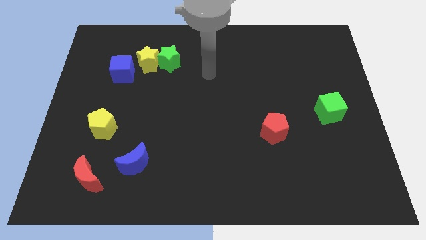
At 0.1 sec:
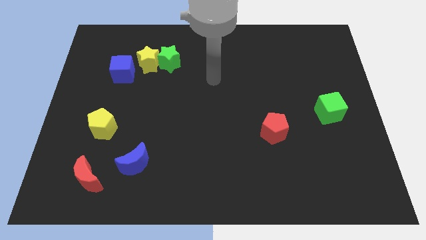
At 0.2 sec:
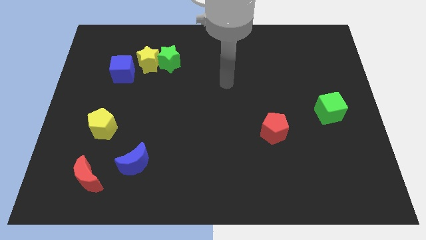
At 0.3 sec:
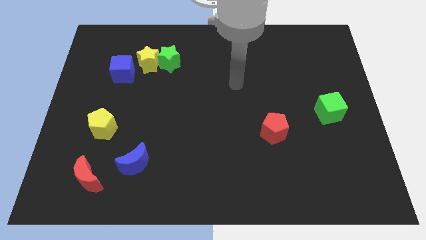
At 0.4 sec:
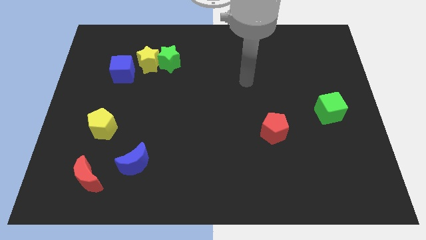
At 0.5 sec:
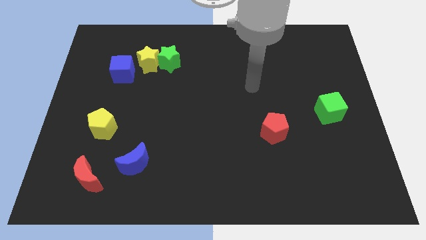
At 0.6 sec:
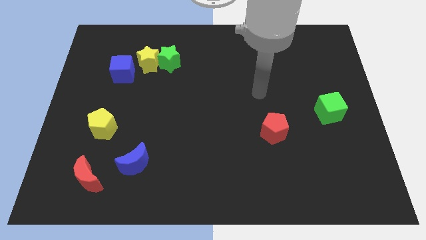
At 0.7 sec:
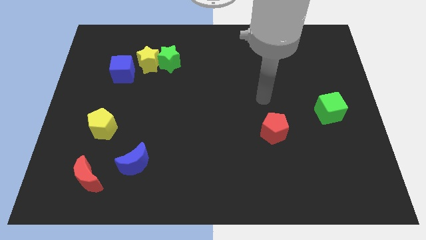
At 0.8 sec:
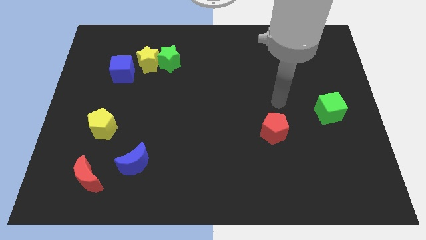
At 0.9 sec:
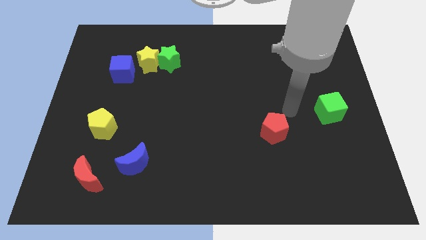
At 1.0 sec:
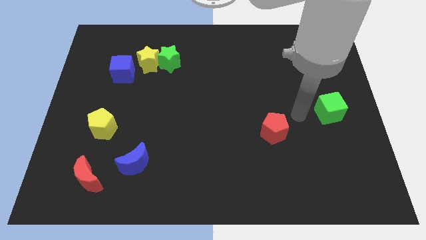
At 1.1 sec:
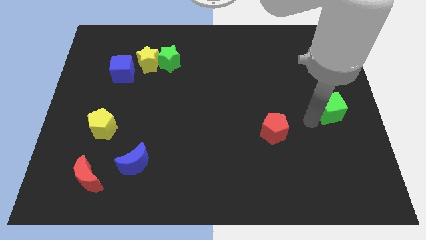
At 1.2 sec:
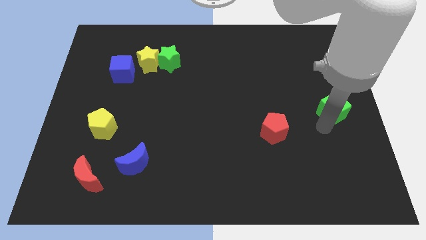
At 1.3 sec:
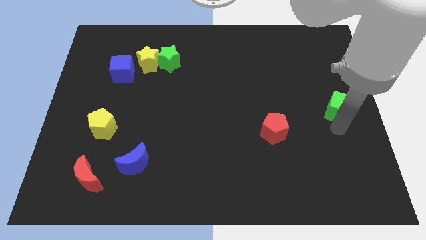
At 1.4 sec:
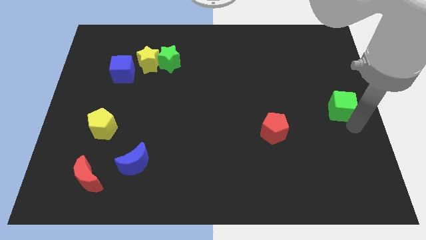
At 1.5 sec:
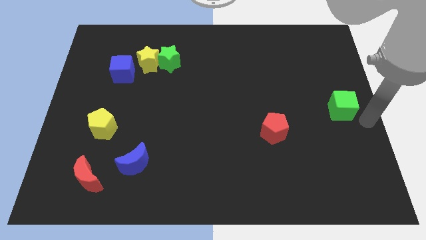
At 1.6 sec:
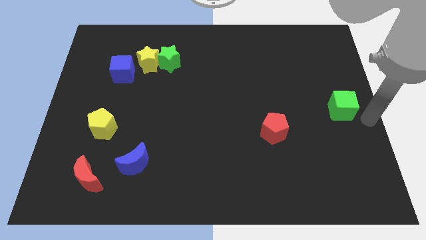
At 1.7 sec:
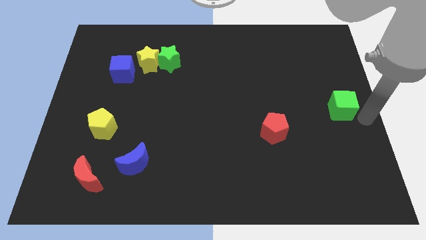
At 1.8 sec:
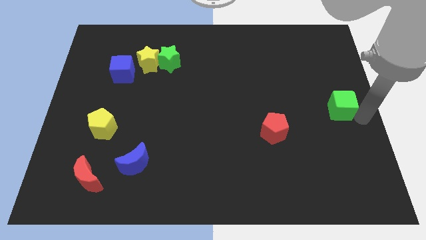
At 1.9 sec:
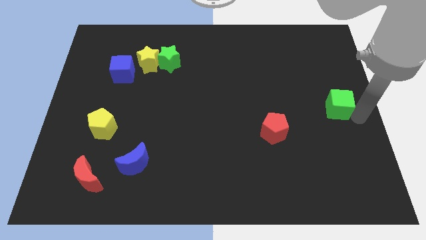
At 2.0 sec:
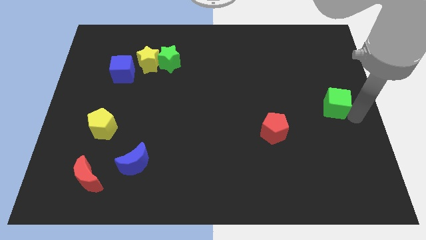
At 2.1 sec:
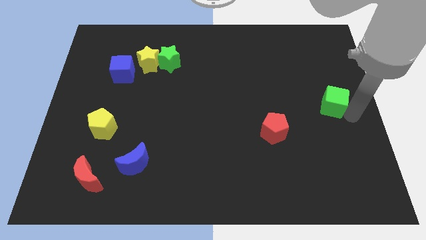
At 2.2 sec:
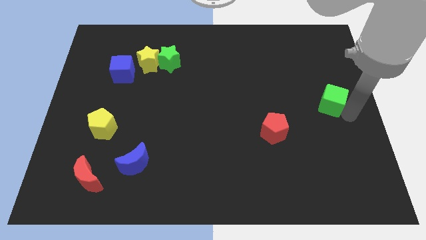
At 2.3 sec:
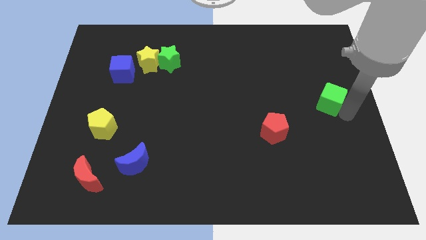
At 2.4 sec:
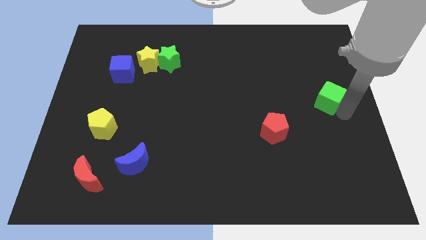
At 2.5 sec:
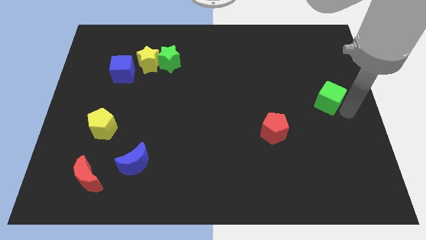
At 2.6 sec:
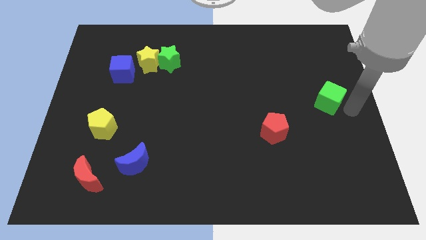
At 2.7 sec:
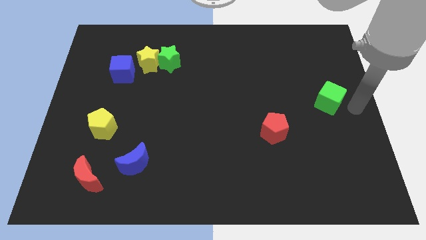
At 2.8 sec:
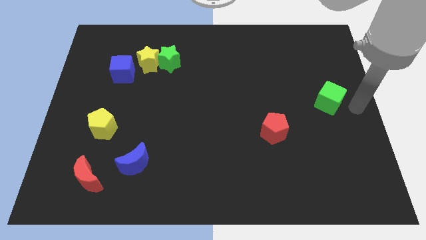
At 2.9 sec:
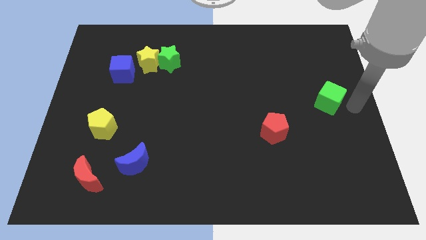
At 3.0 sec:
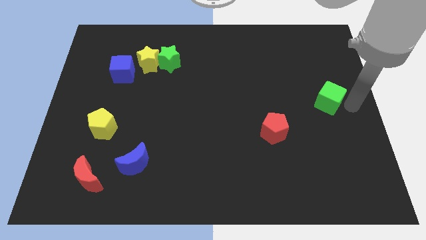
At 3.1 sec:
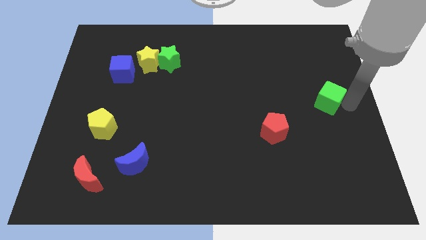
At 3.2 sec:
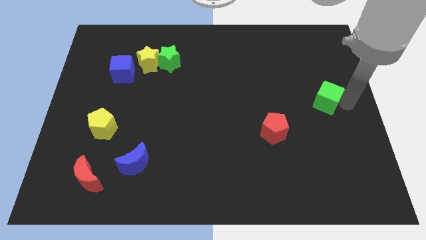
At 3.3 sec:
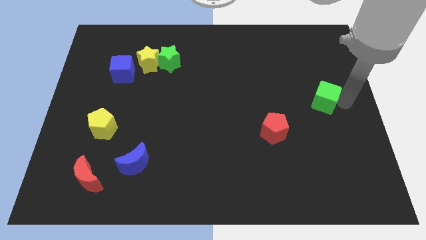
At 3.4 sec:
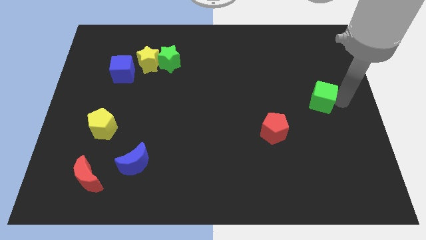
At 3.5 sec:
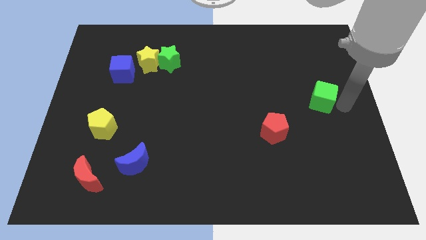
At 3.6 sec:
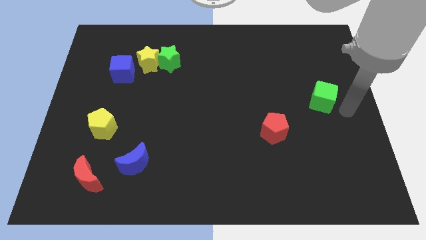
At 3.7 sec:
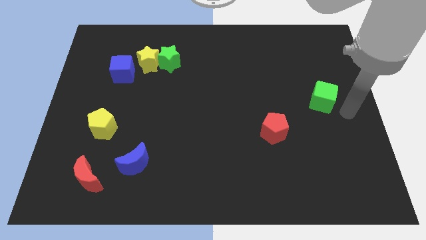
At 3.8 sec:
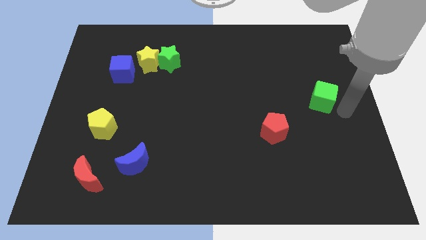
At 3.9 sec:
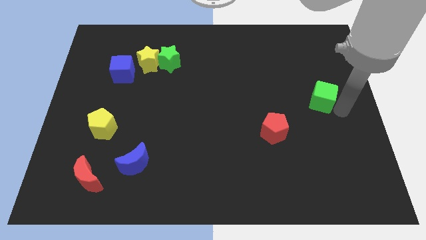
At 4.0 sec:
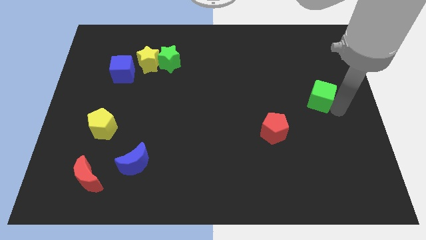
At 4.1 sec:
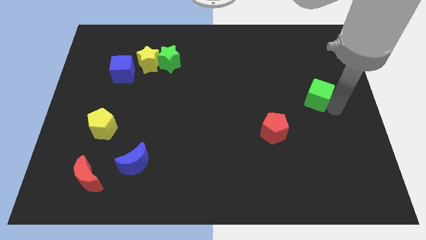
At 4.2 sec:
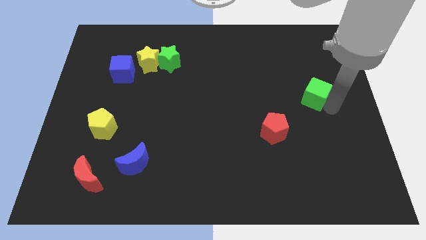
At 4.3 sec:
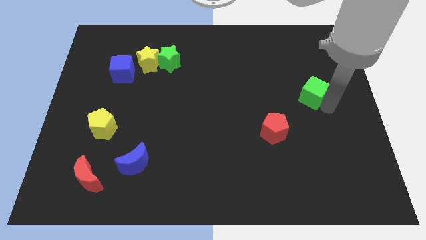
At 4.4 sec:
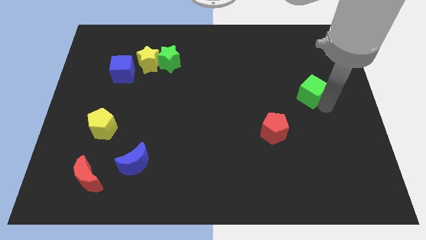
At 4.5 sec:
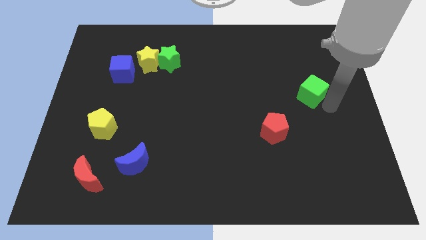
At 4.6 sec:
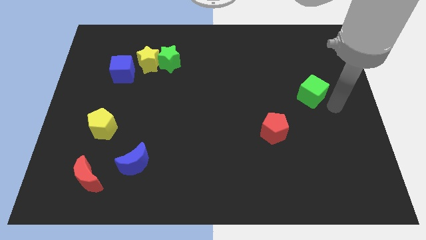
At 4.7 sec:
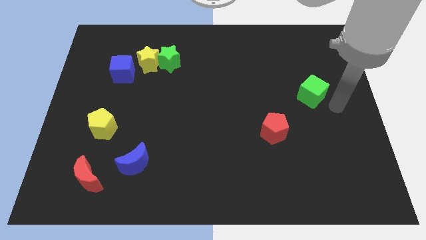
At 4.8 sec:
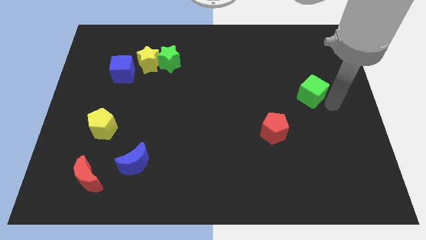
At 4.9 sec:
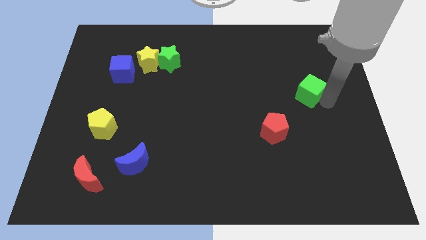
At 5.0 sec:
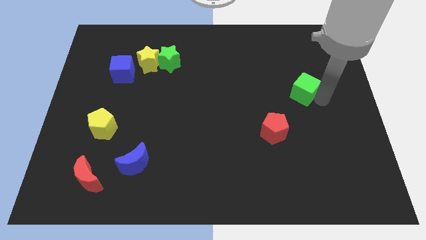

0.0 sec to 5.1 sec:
slightly move the green cube upwards and left diagonally

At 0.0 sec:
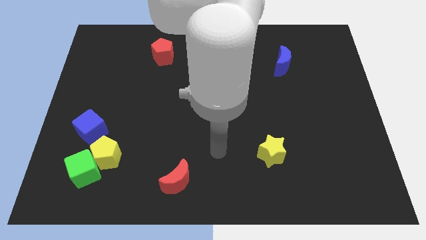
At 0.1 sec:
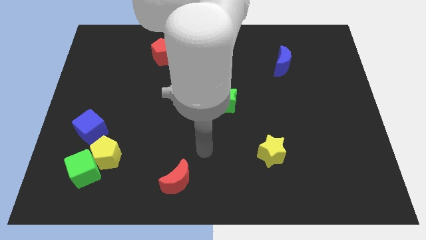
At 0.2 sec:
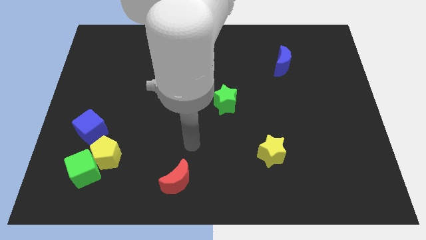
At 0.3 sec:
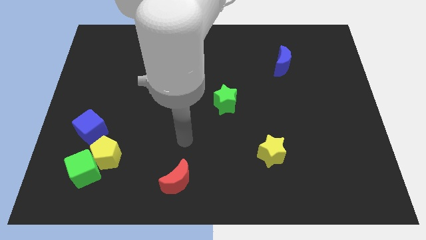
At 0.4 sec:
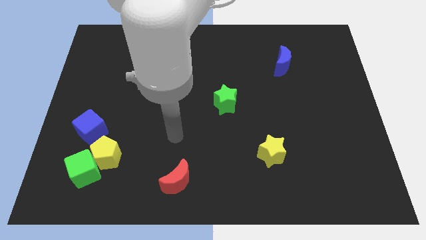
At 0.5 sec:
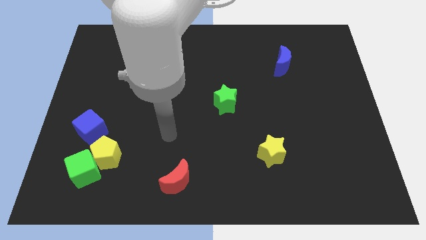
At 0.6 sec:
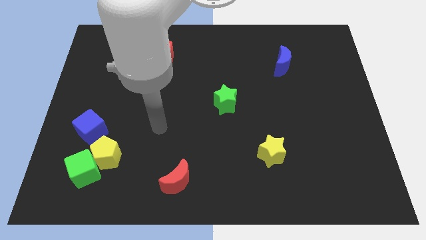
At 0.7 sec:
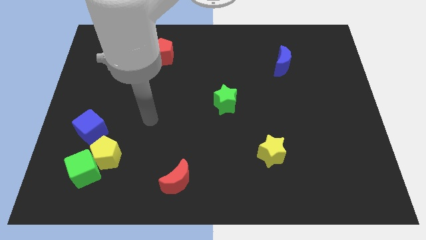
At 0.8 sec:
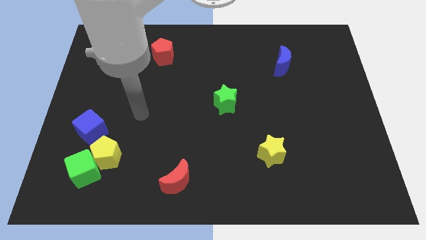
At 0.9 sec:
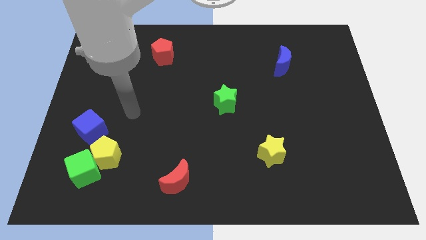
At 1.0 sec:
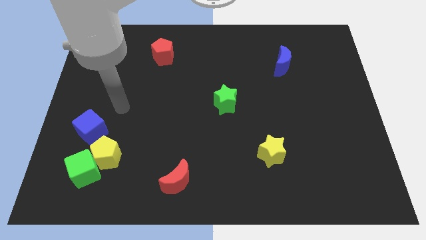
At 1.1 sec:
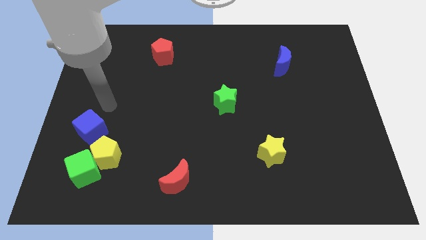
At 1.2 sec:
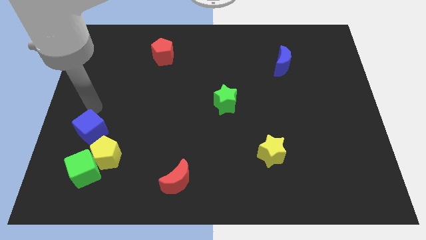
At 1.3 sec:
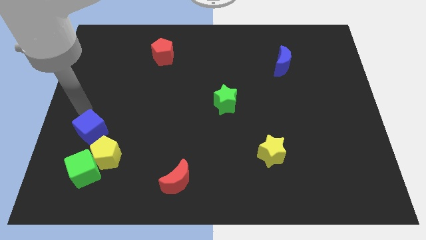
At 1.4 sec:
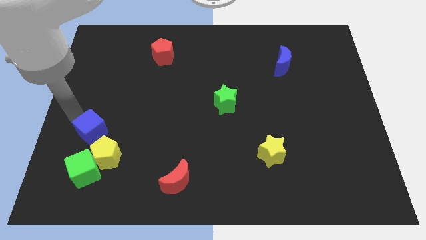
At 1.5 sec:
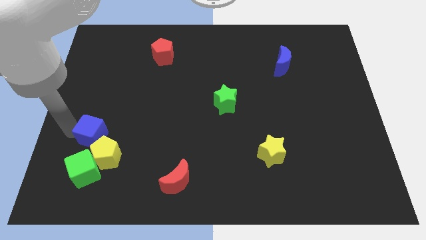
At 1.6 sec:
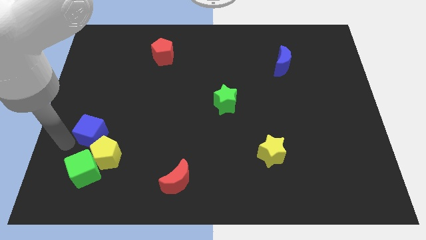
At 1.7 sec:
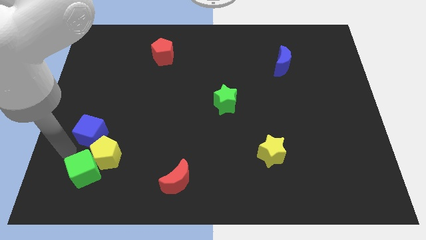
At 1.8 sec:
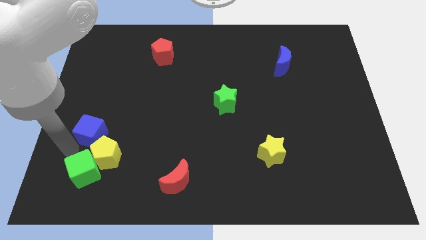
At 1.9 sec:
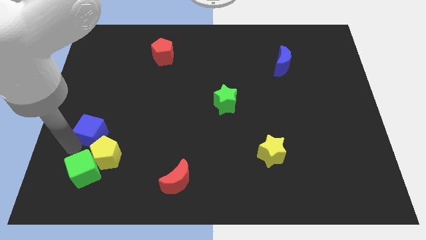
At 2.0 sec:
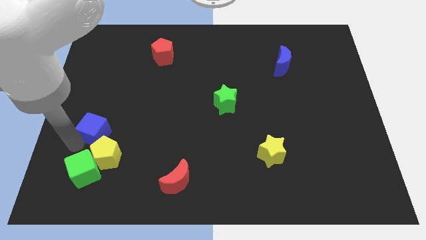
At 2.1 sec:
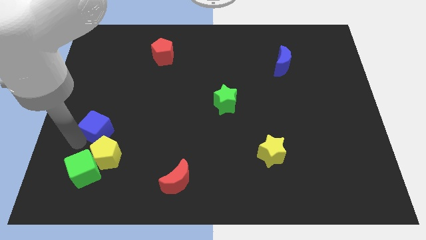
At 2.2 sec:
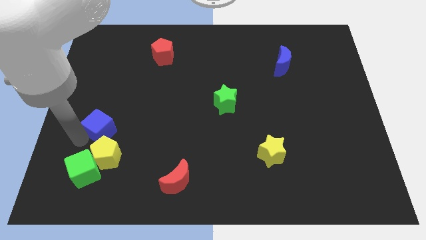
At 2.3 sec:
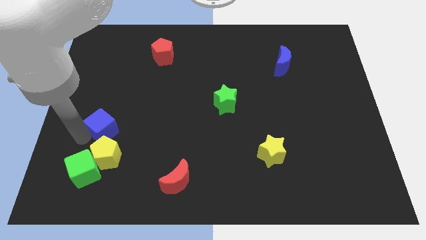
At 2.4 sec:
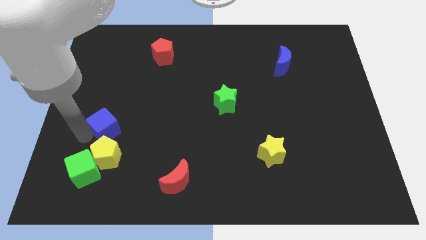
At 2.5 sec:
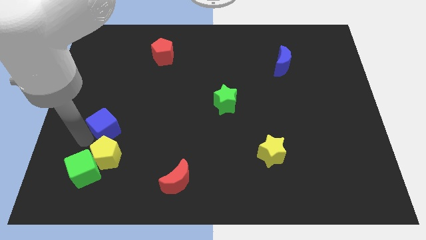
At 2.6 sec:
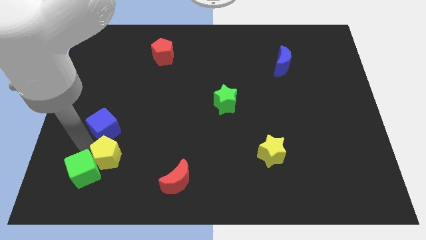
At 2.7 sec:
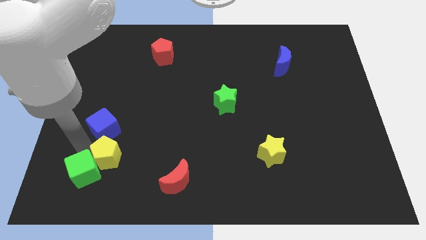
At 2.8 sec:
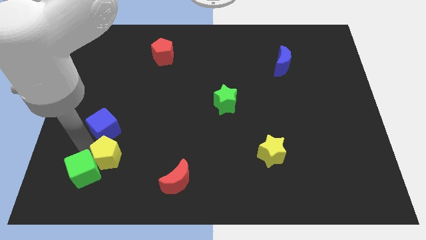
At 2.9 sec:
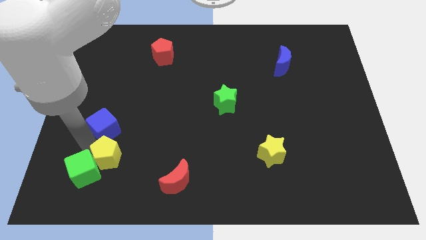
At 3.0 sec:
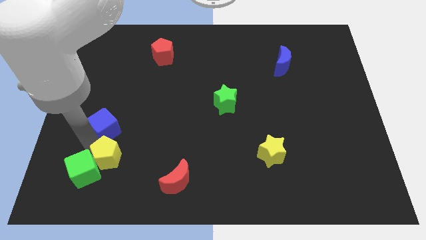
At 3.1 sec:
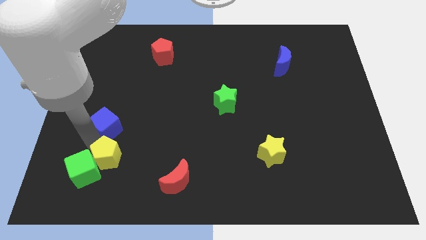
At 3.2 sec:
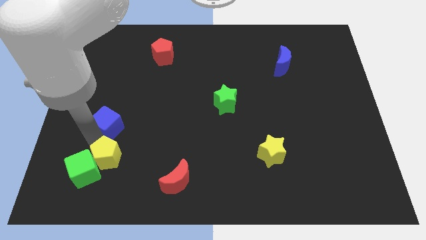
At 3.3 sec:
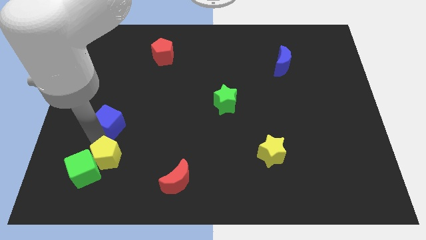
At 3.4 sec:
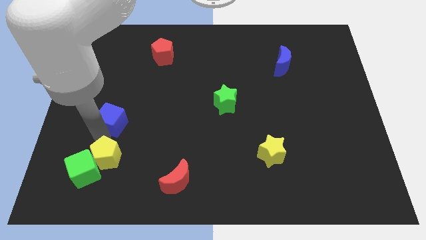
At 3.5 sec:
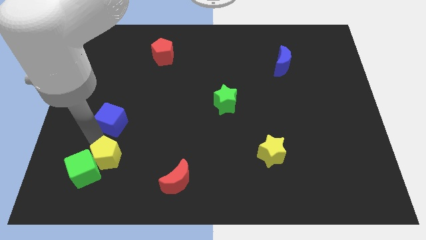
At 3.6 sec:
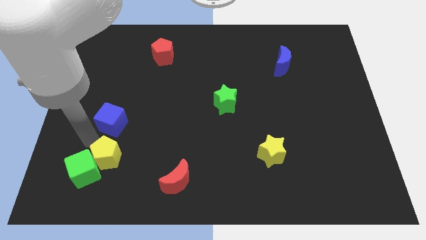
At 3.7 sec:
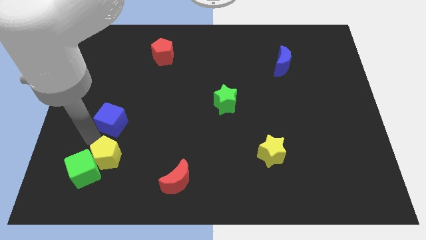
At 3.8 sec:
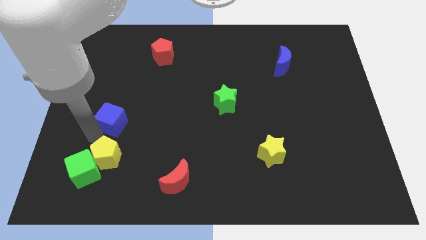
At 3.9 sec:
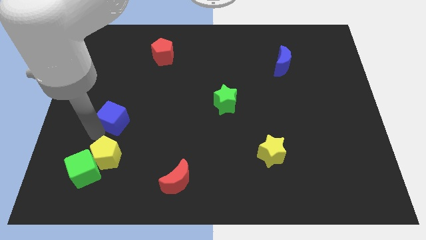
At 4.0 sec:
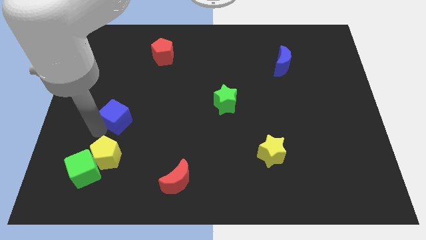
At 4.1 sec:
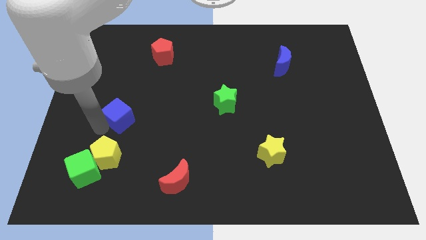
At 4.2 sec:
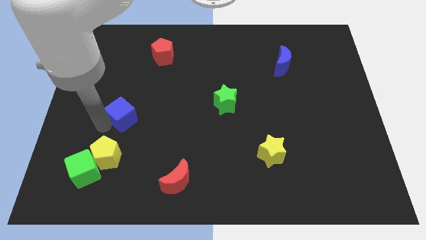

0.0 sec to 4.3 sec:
push the blue cube up and to the right diagonally a little
